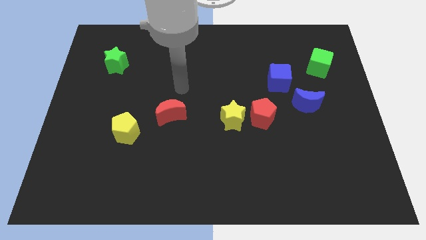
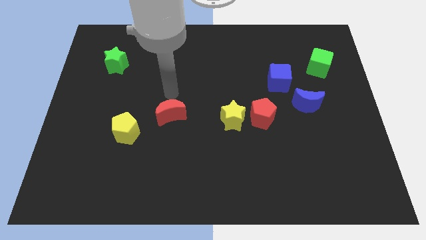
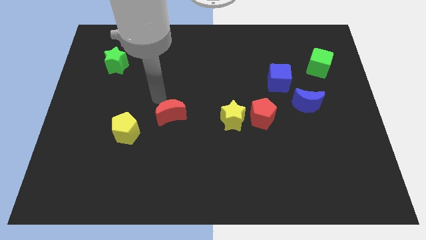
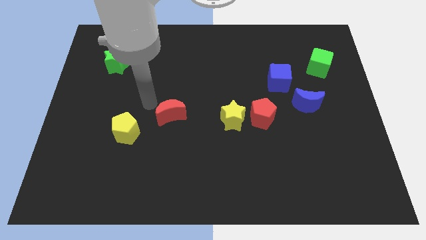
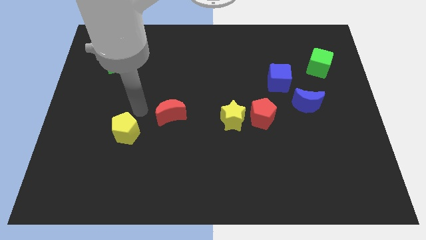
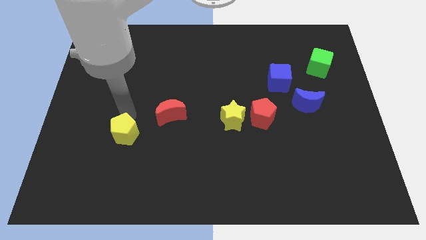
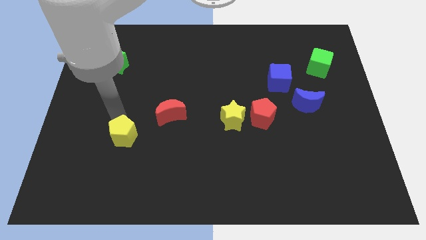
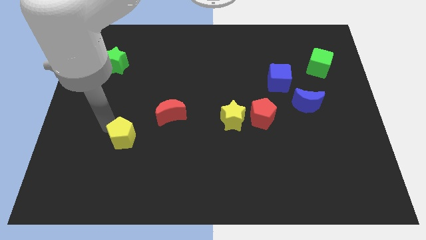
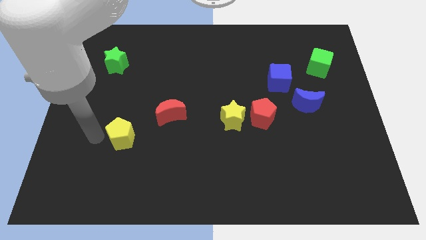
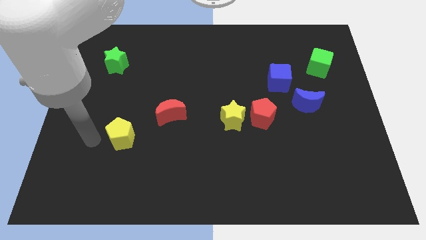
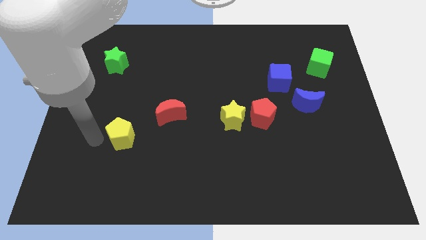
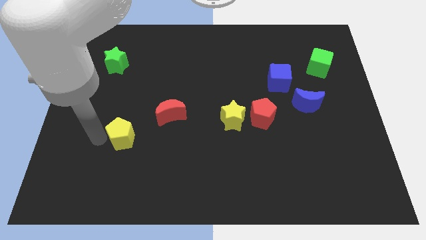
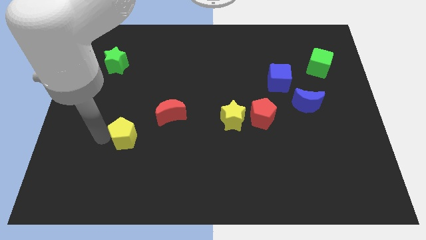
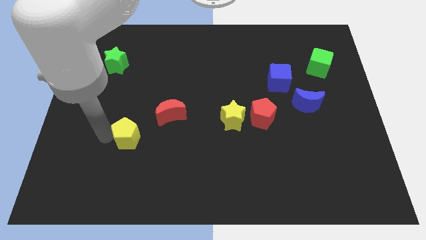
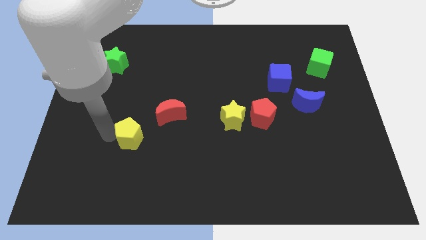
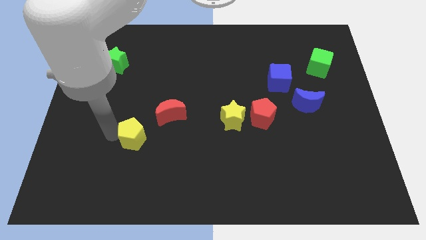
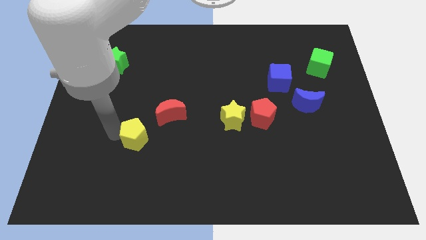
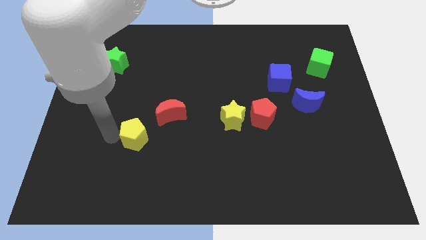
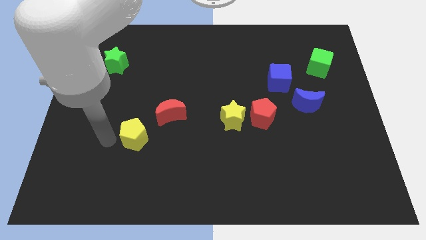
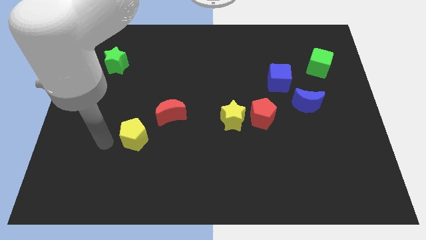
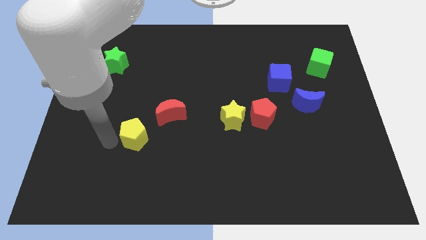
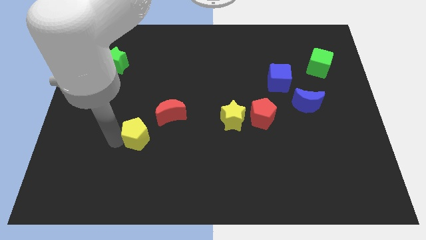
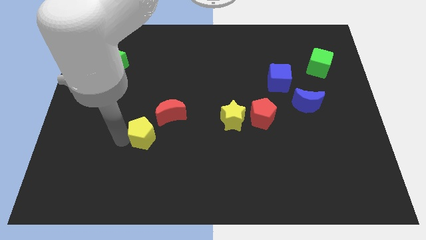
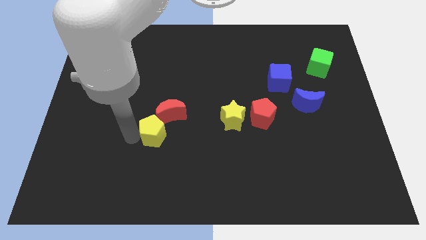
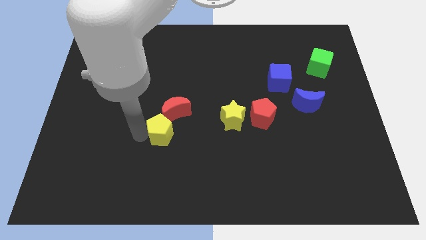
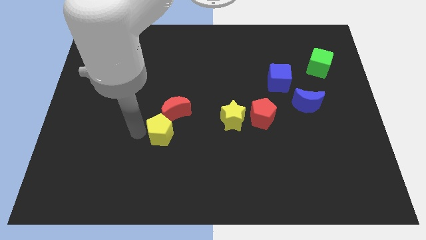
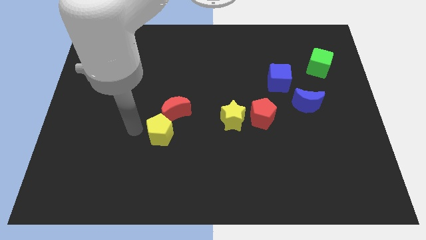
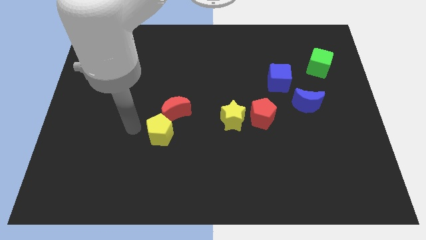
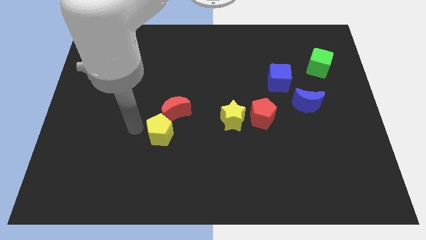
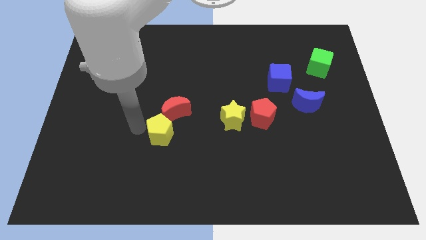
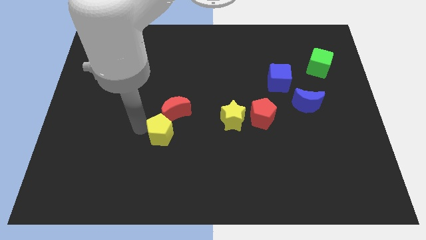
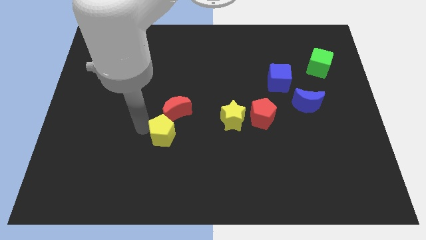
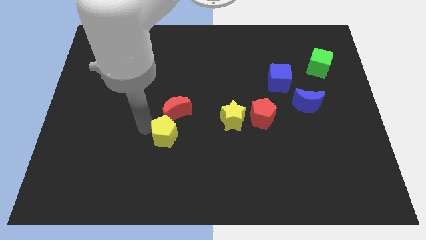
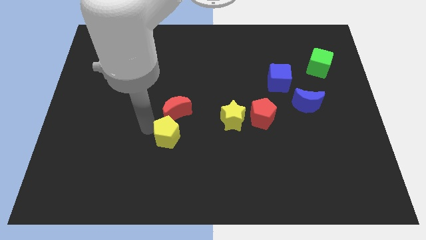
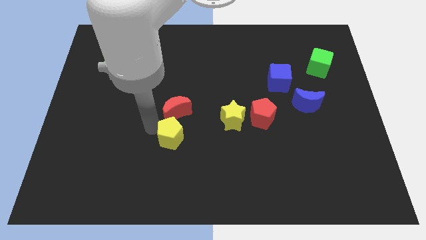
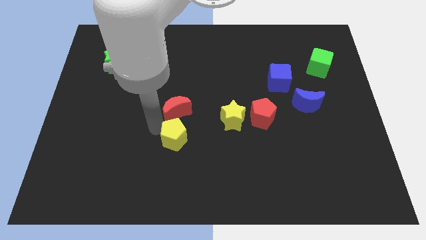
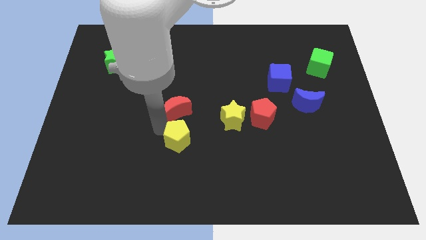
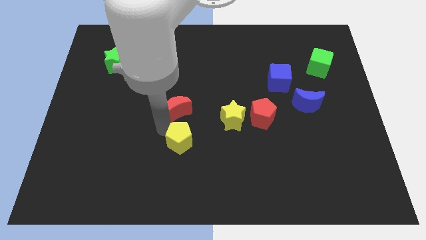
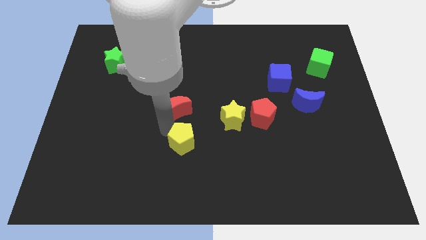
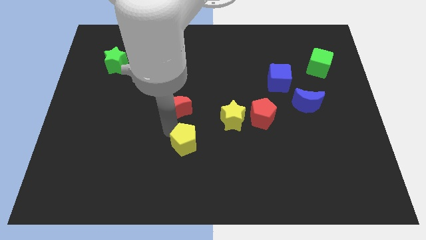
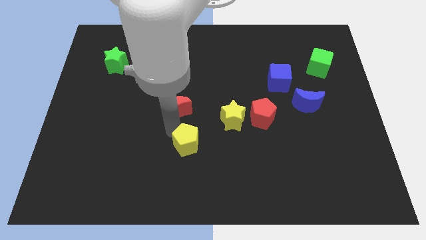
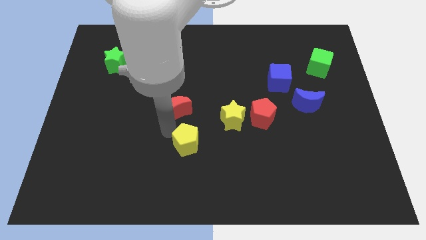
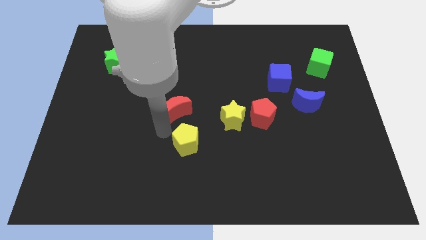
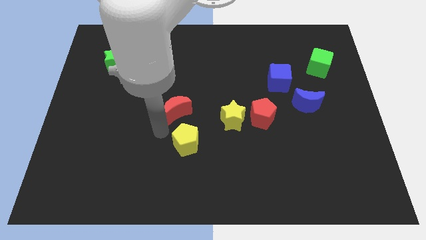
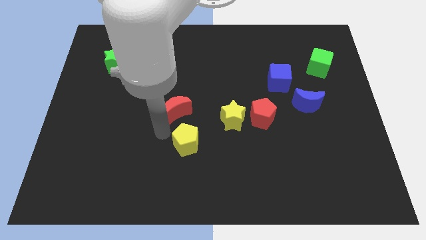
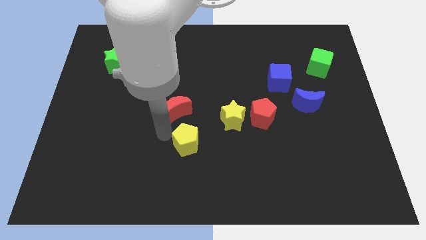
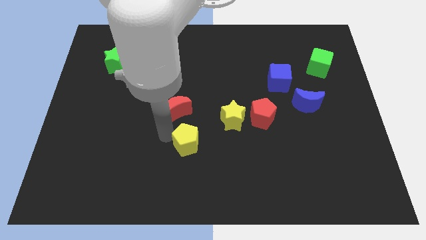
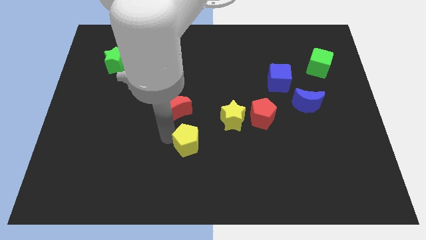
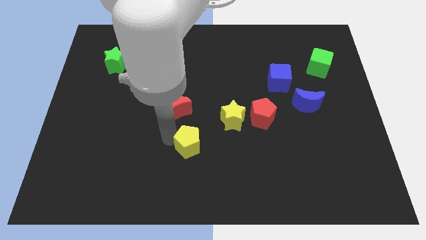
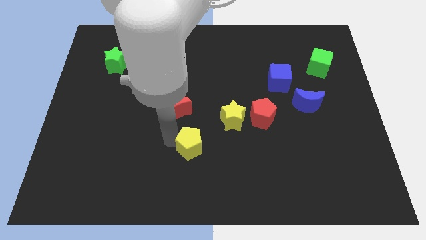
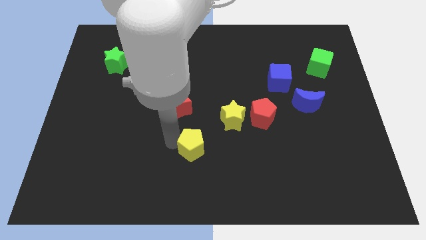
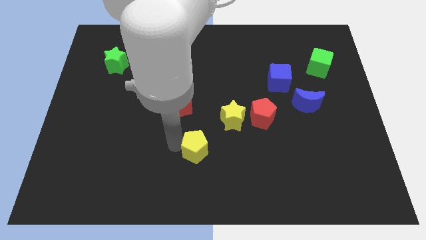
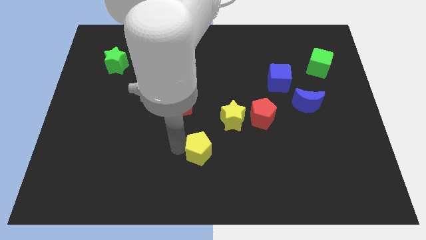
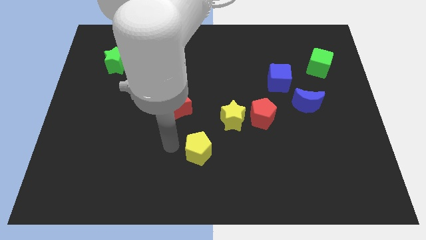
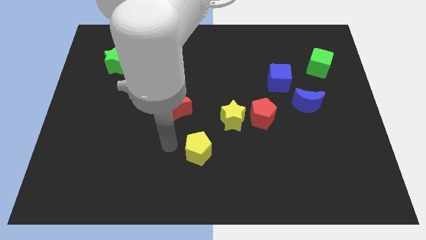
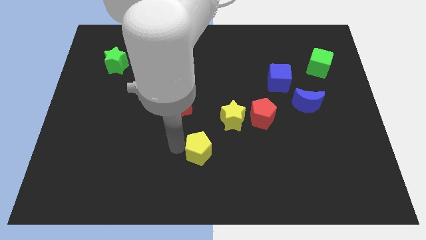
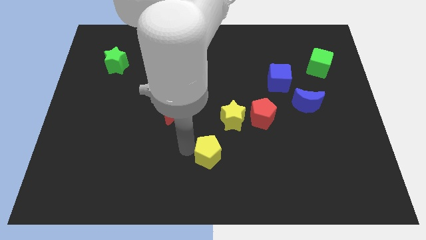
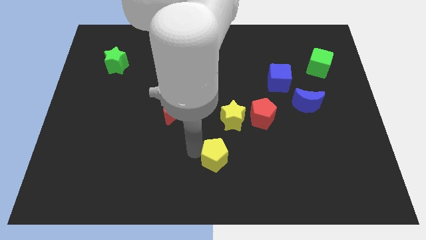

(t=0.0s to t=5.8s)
slide the yellow pentagon to the bottom side of the yellow star
